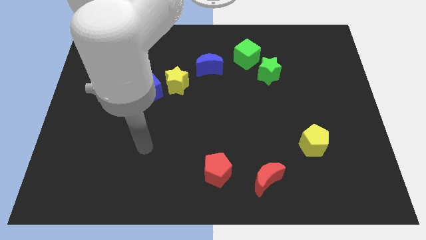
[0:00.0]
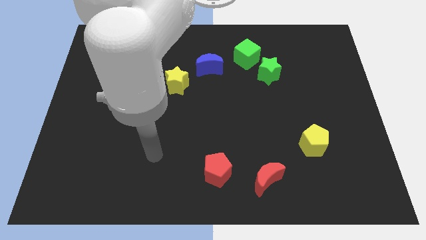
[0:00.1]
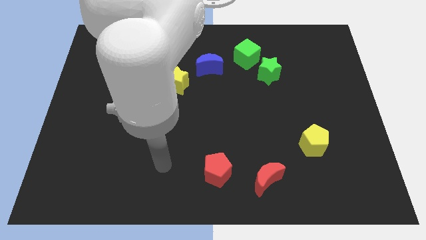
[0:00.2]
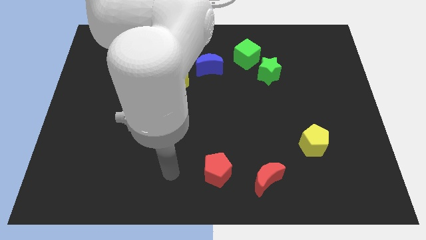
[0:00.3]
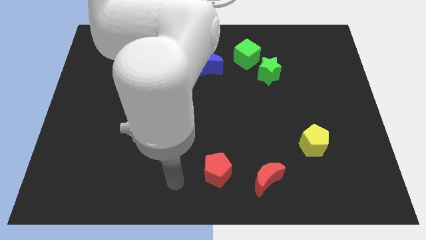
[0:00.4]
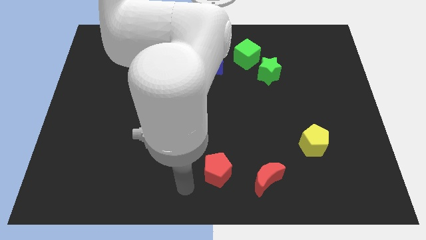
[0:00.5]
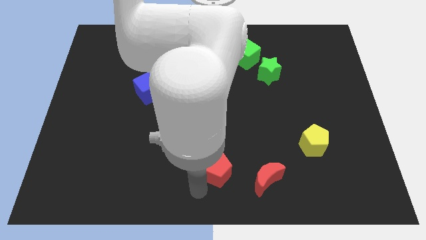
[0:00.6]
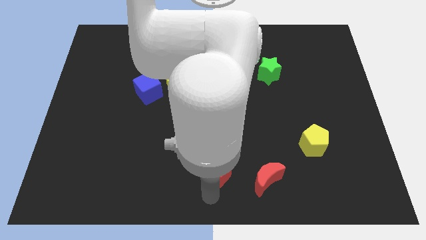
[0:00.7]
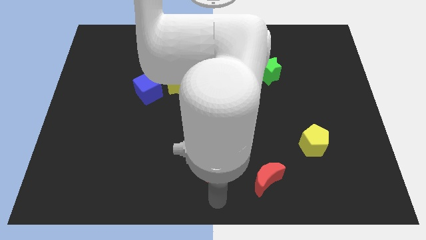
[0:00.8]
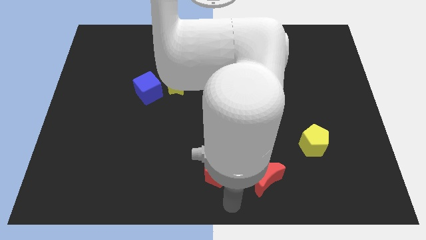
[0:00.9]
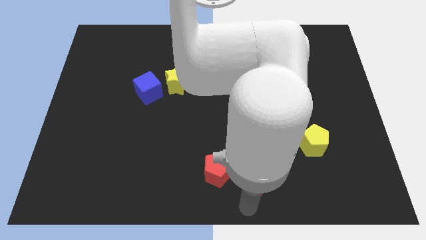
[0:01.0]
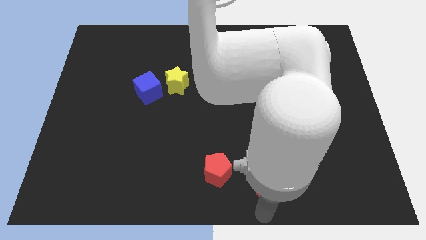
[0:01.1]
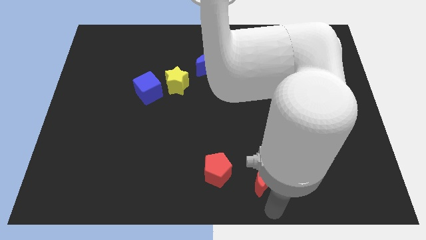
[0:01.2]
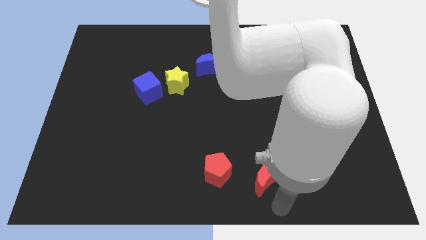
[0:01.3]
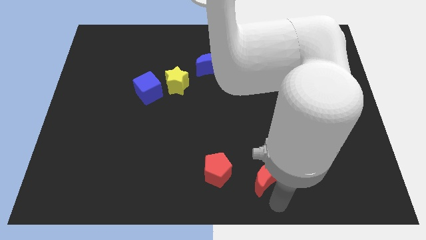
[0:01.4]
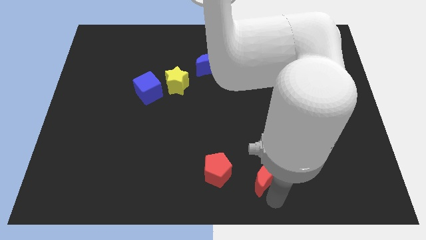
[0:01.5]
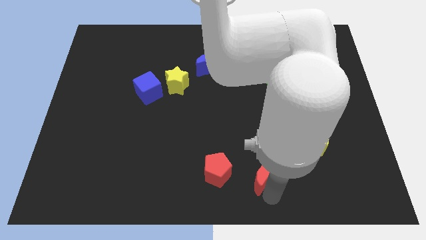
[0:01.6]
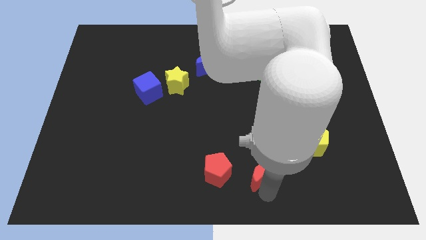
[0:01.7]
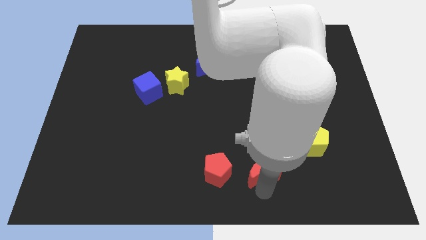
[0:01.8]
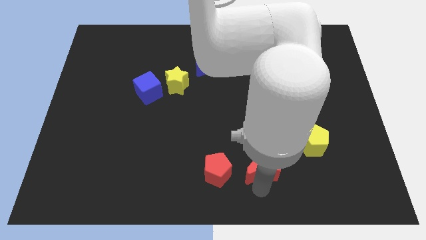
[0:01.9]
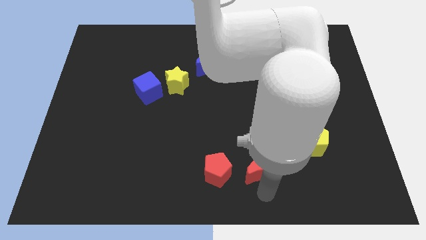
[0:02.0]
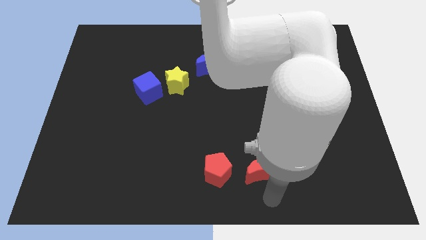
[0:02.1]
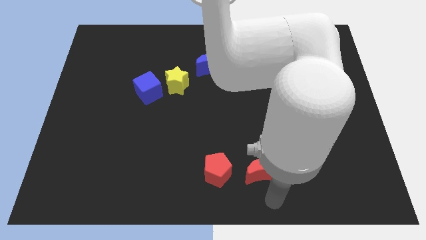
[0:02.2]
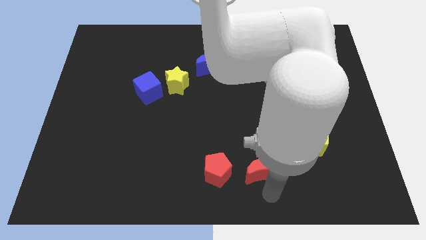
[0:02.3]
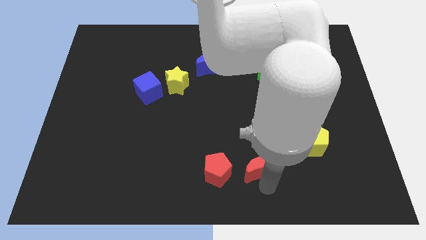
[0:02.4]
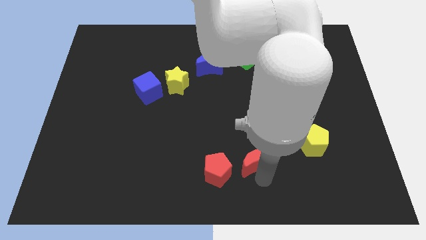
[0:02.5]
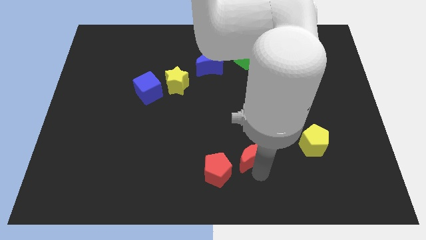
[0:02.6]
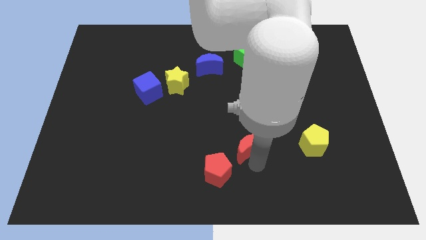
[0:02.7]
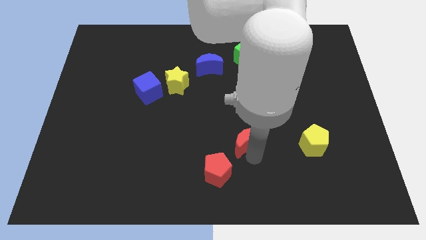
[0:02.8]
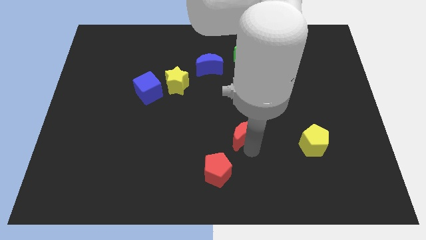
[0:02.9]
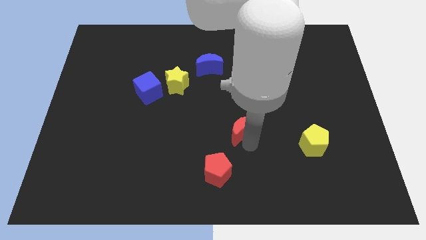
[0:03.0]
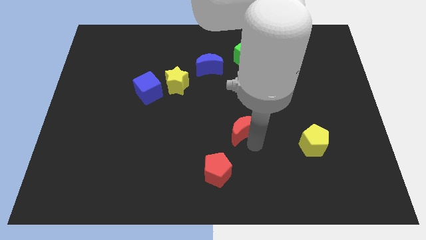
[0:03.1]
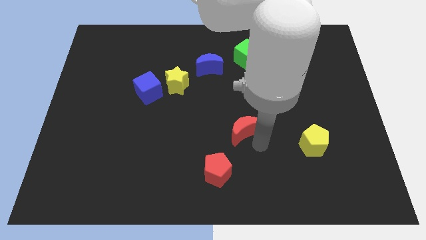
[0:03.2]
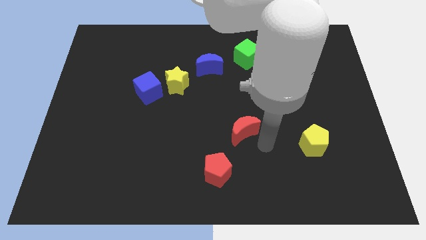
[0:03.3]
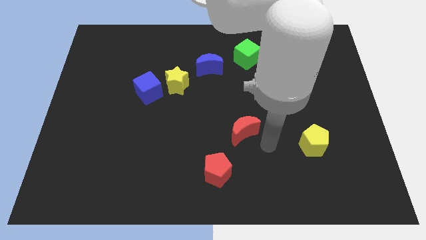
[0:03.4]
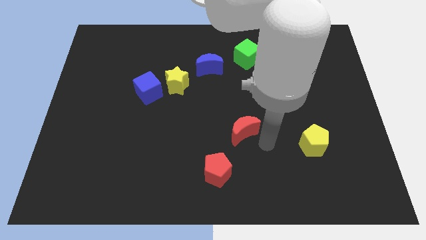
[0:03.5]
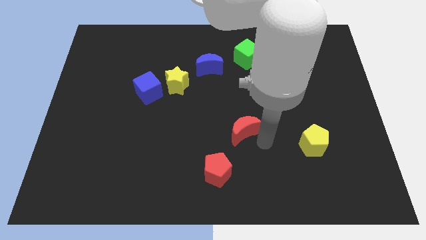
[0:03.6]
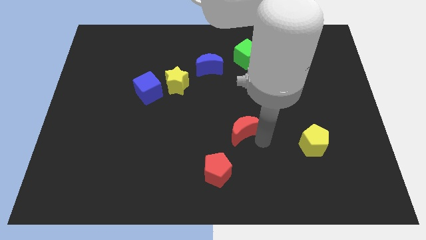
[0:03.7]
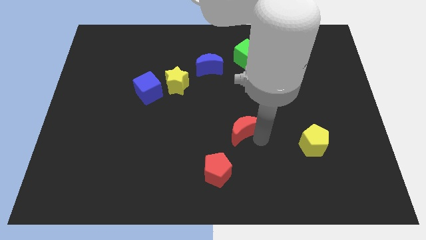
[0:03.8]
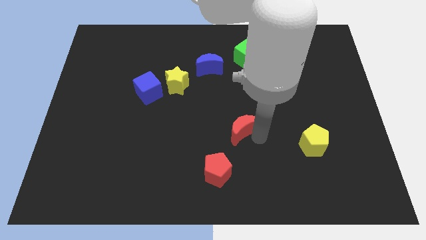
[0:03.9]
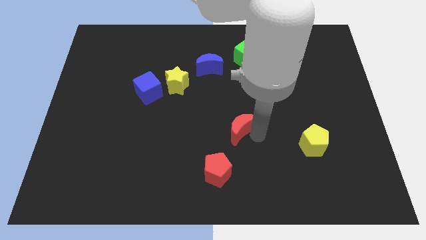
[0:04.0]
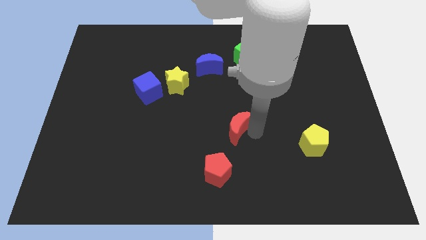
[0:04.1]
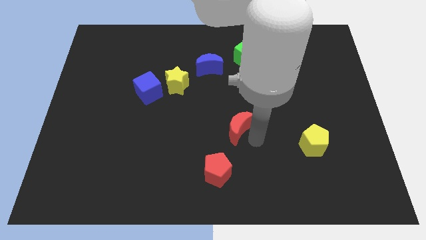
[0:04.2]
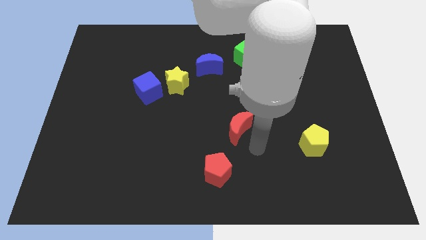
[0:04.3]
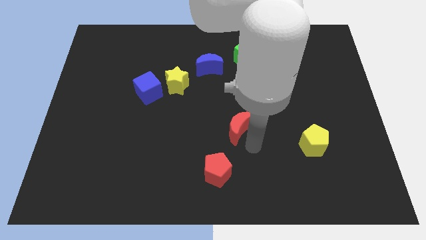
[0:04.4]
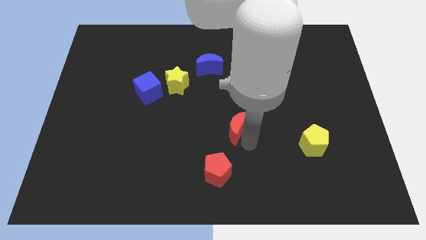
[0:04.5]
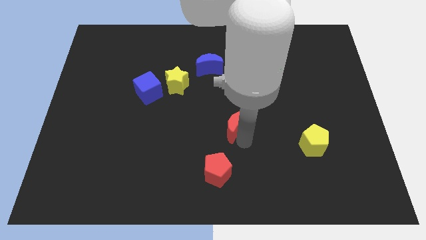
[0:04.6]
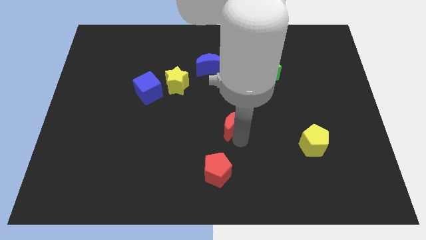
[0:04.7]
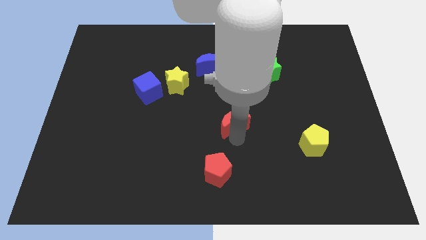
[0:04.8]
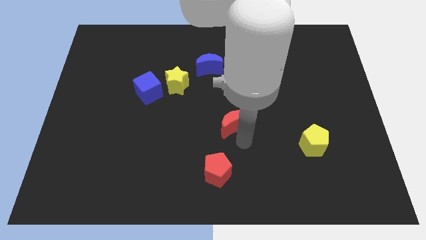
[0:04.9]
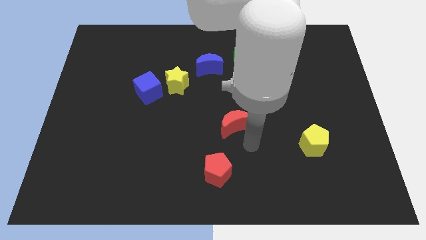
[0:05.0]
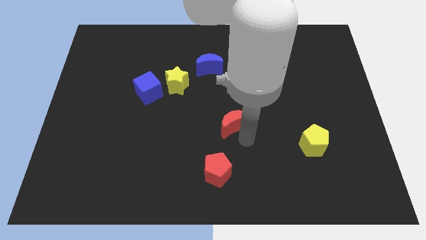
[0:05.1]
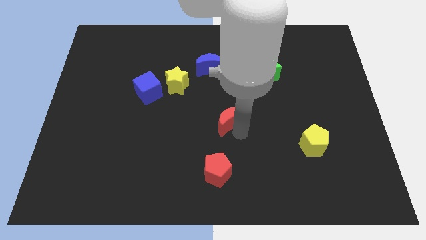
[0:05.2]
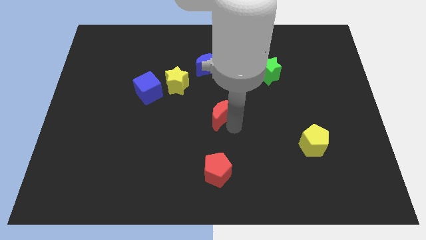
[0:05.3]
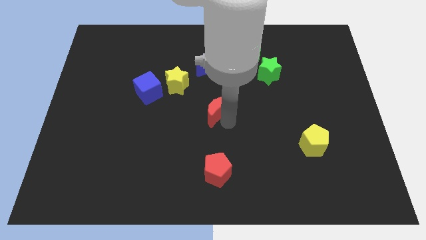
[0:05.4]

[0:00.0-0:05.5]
move the red moon below the blue moon

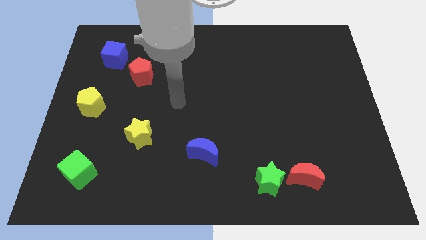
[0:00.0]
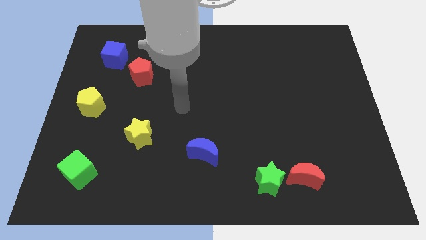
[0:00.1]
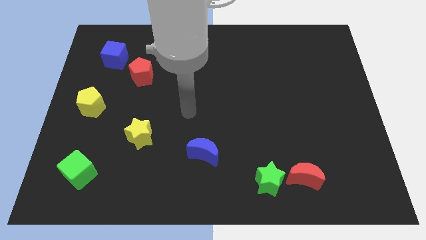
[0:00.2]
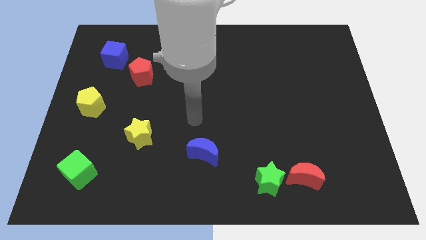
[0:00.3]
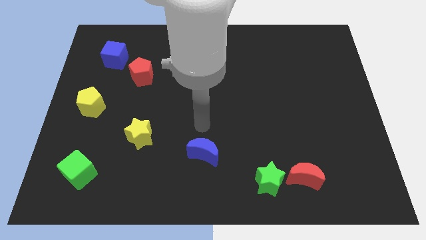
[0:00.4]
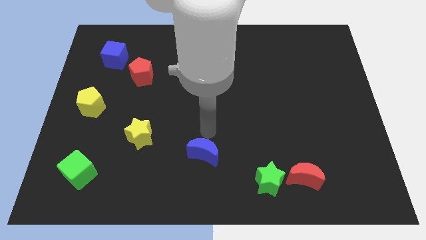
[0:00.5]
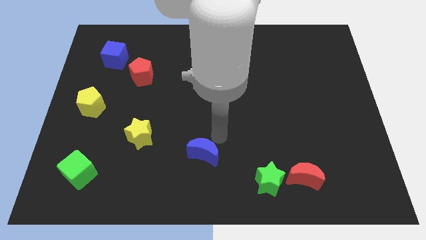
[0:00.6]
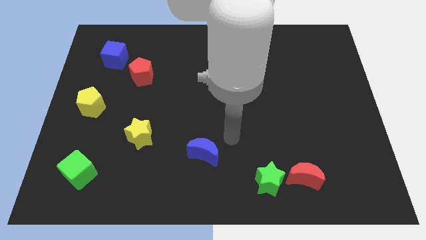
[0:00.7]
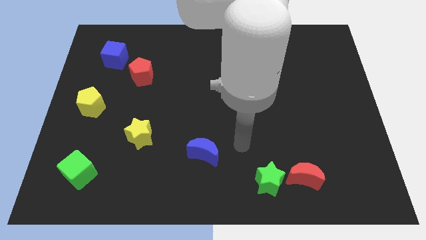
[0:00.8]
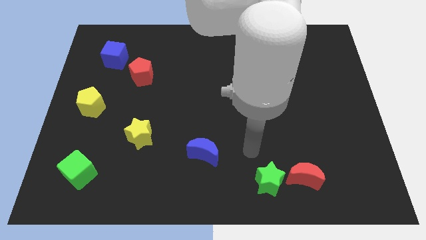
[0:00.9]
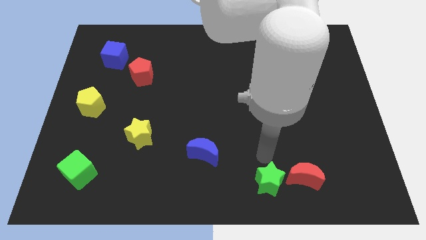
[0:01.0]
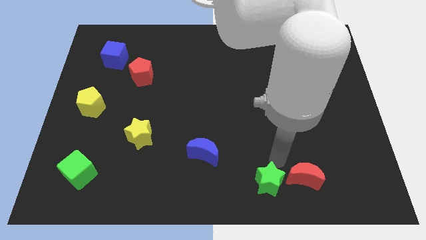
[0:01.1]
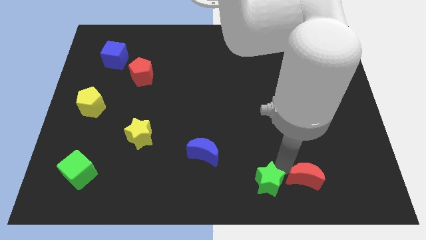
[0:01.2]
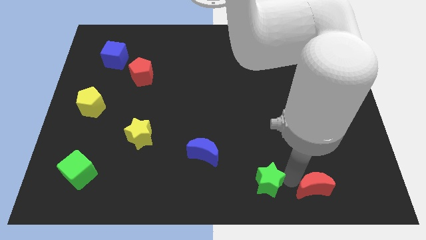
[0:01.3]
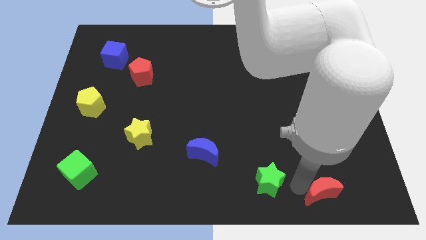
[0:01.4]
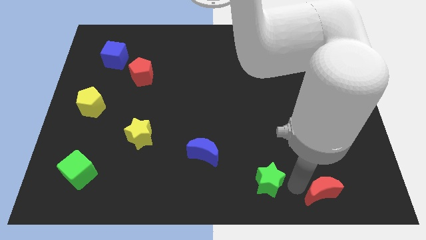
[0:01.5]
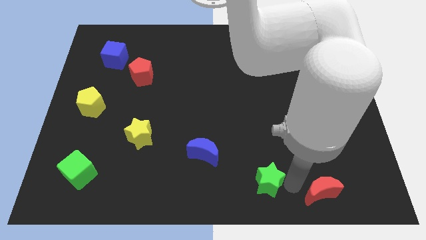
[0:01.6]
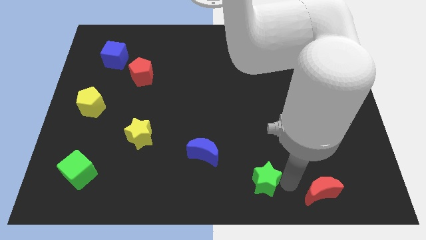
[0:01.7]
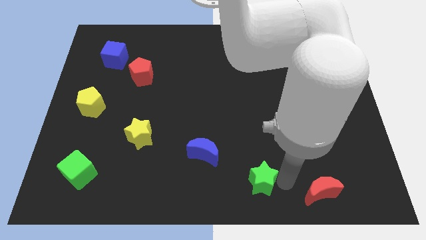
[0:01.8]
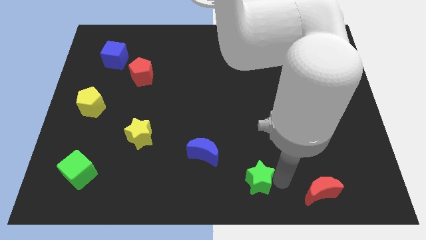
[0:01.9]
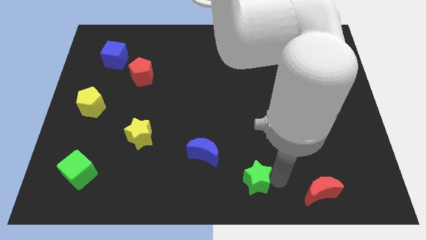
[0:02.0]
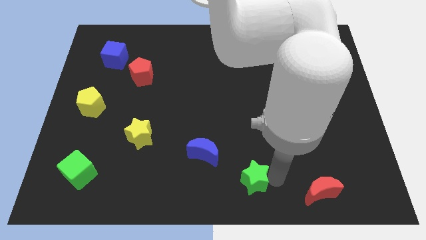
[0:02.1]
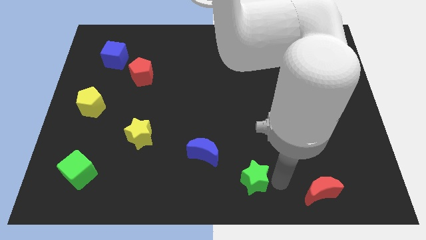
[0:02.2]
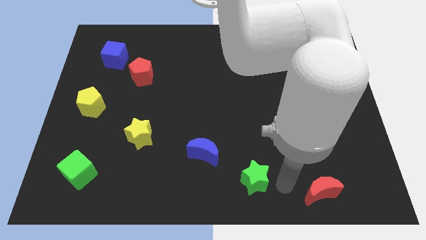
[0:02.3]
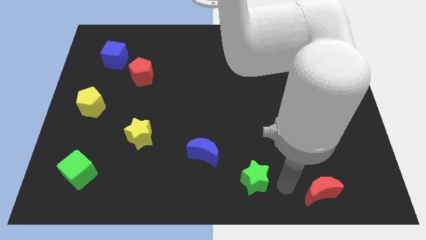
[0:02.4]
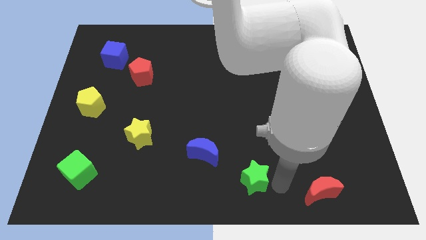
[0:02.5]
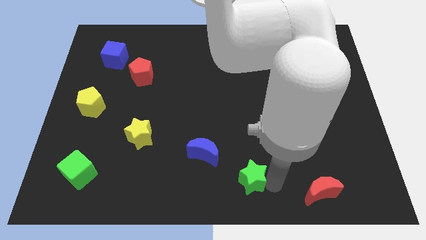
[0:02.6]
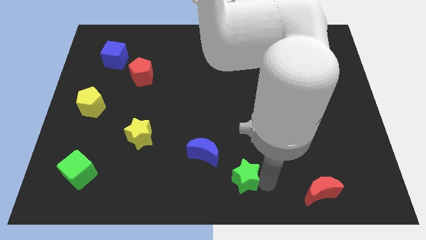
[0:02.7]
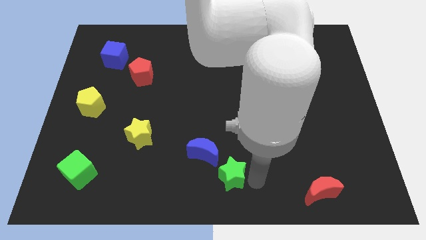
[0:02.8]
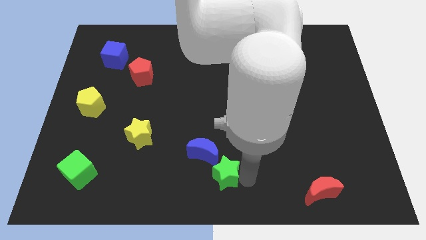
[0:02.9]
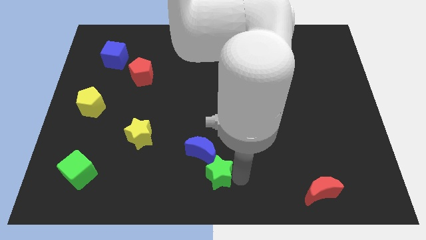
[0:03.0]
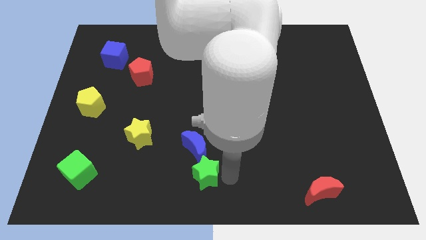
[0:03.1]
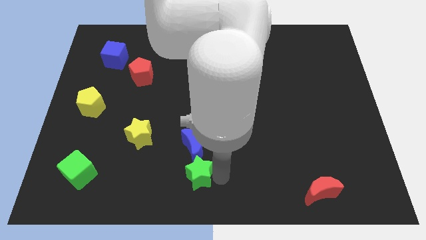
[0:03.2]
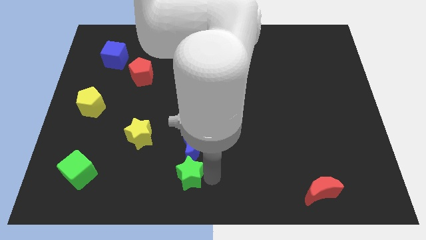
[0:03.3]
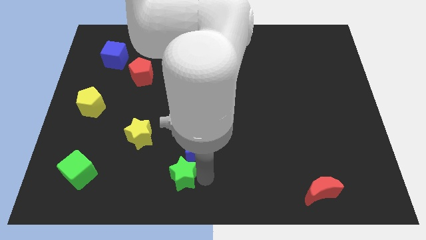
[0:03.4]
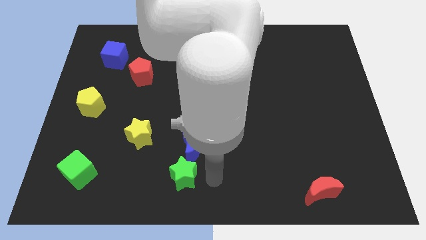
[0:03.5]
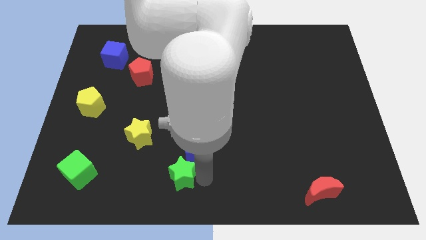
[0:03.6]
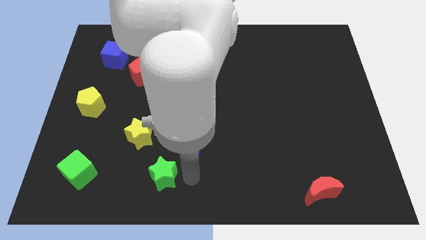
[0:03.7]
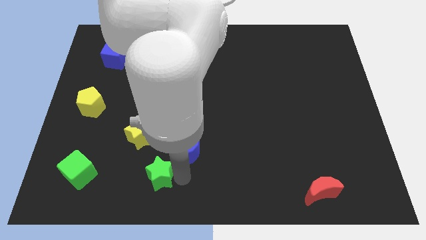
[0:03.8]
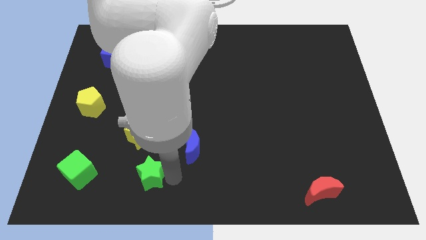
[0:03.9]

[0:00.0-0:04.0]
move the green star to the right of the green cube
